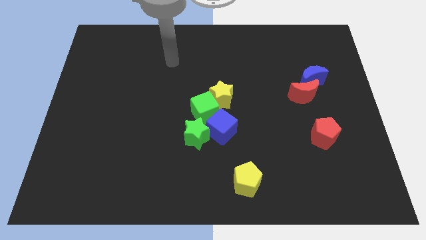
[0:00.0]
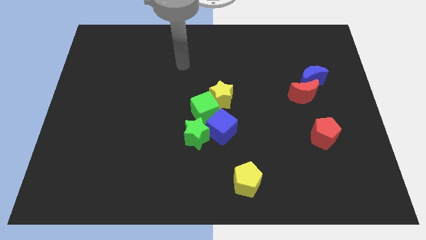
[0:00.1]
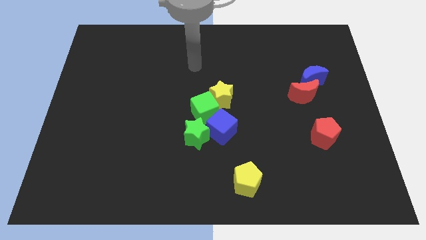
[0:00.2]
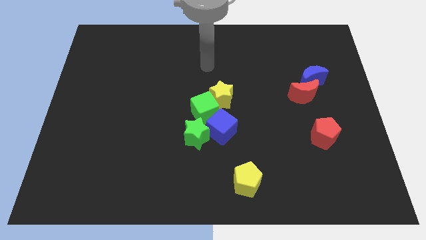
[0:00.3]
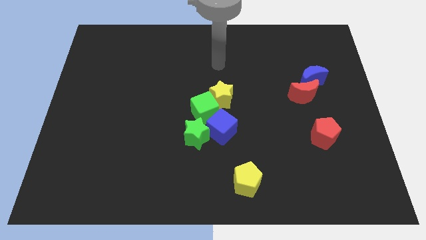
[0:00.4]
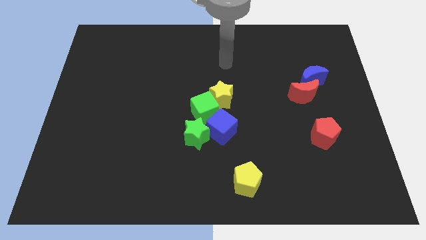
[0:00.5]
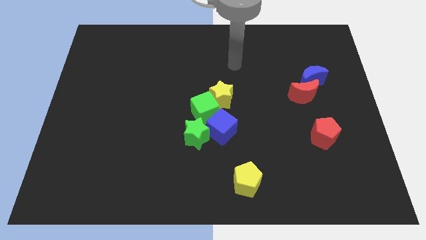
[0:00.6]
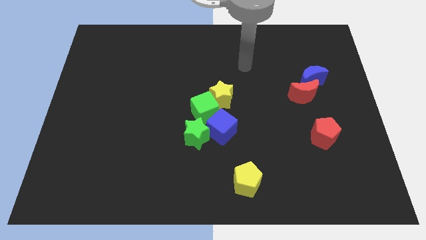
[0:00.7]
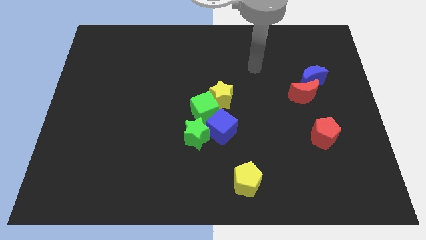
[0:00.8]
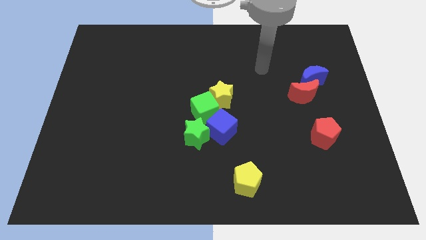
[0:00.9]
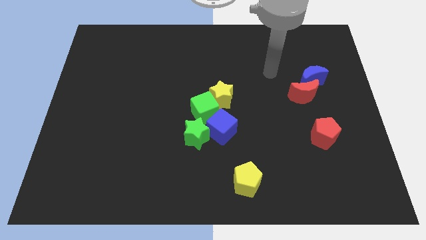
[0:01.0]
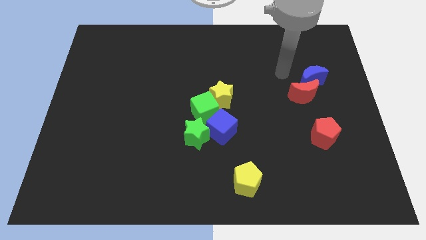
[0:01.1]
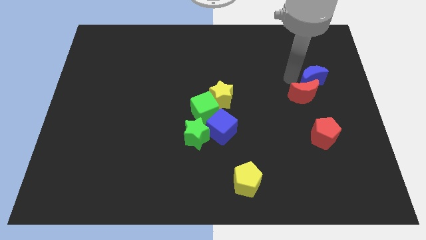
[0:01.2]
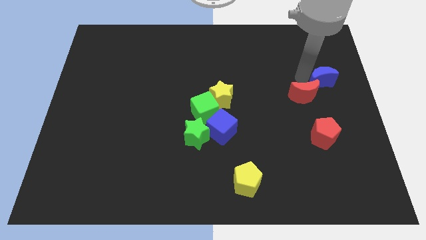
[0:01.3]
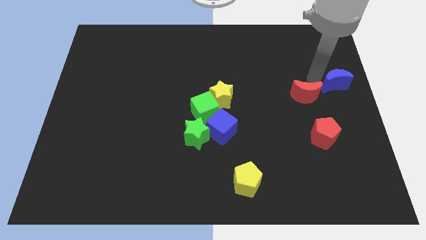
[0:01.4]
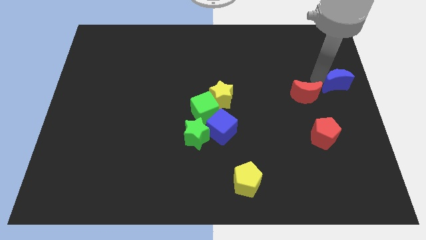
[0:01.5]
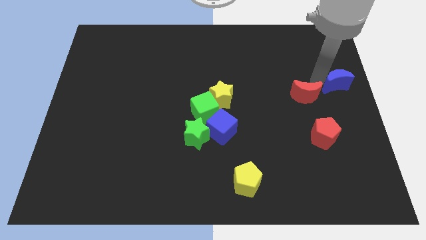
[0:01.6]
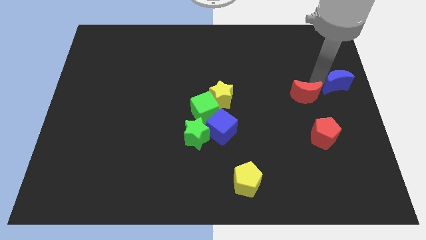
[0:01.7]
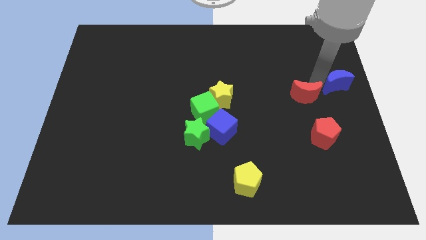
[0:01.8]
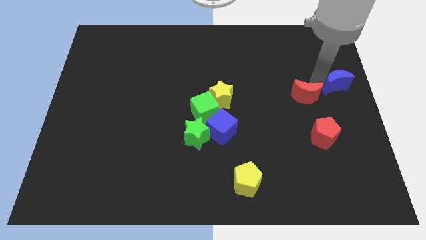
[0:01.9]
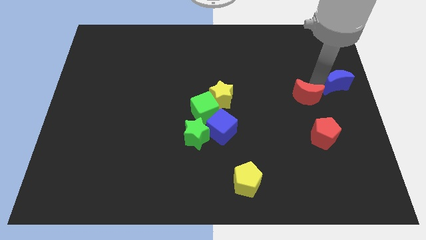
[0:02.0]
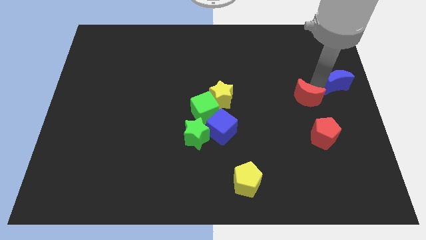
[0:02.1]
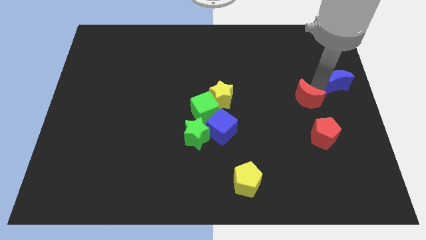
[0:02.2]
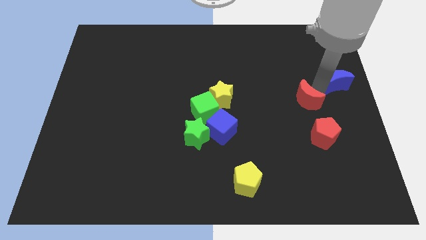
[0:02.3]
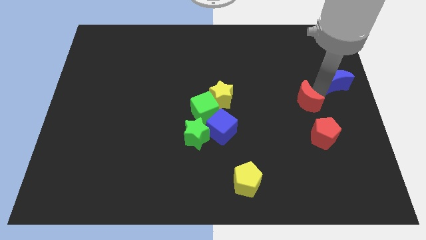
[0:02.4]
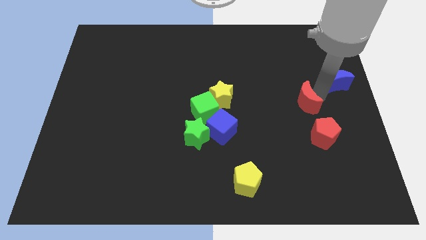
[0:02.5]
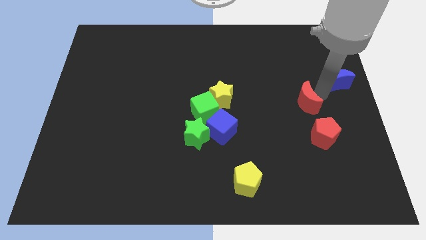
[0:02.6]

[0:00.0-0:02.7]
pull the red moon apart from the blue moon

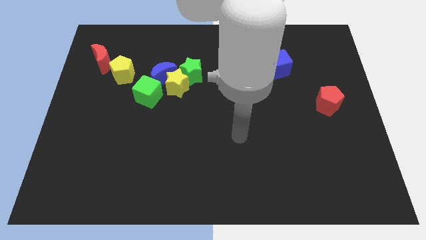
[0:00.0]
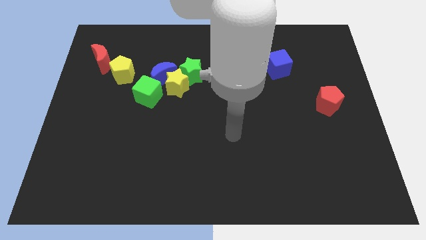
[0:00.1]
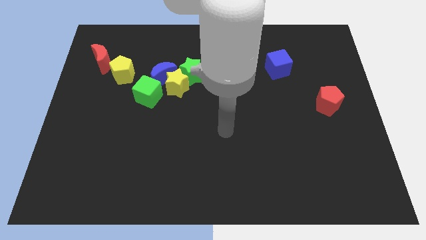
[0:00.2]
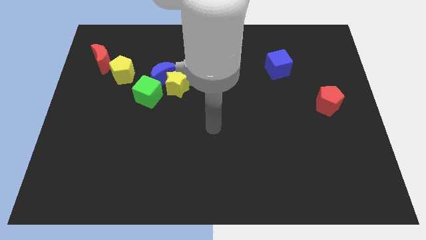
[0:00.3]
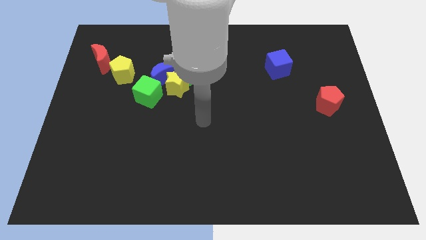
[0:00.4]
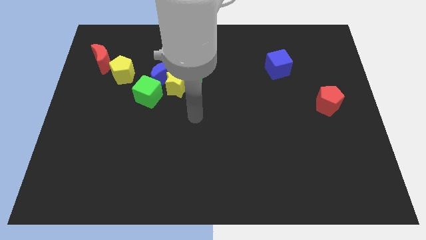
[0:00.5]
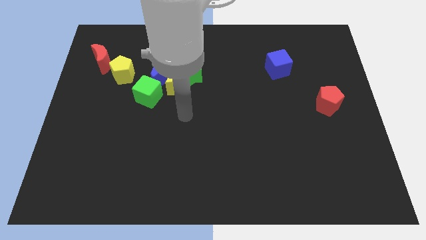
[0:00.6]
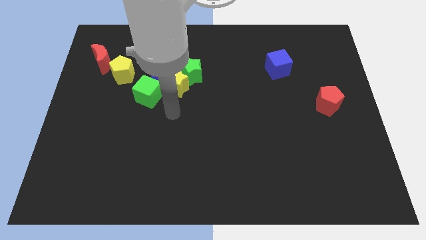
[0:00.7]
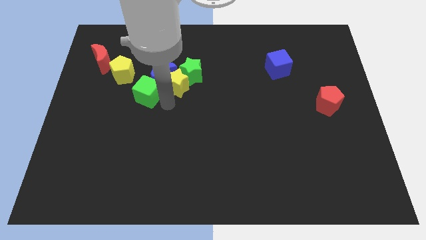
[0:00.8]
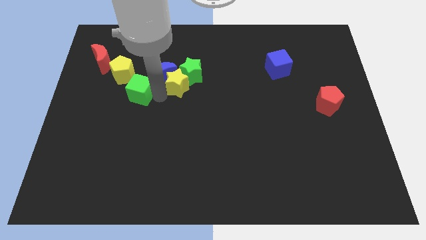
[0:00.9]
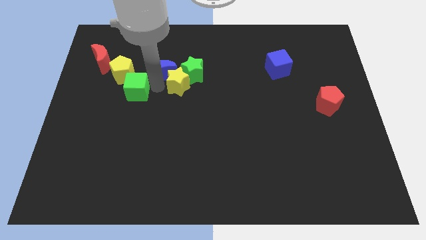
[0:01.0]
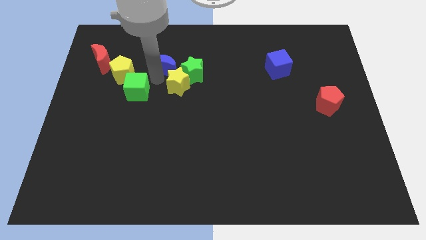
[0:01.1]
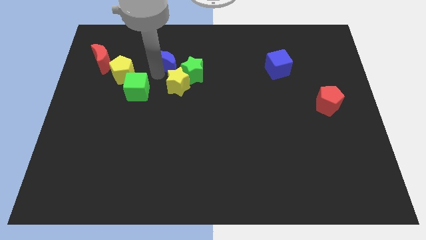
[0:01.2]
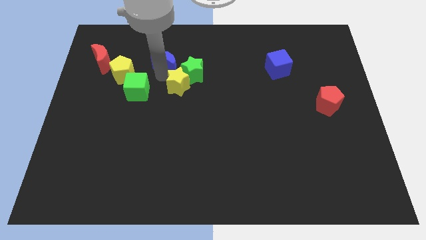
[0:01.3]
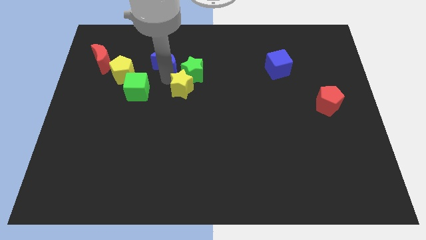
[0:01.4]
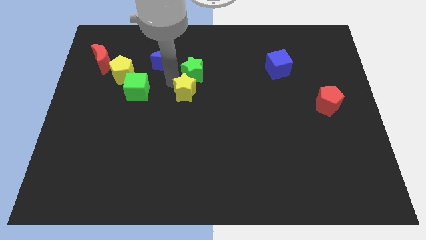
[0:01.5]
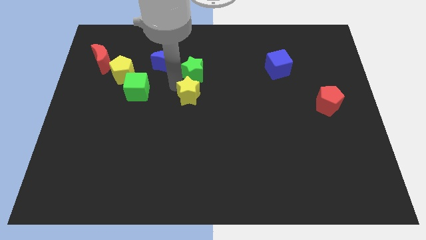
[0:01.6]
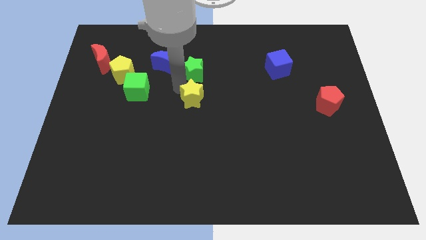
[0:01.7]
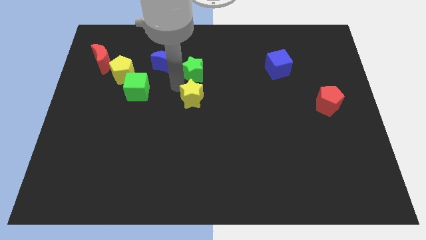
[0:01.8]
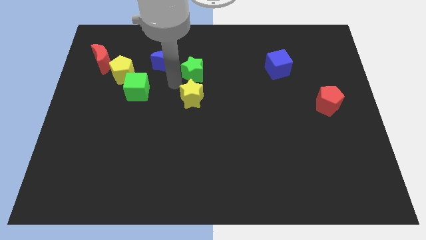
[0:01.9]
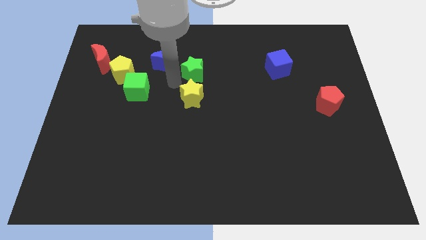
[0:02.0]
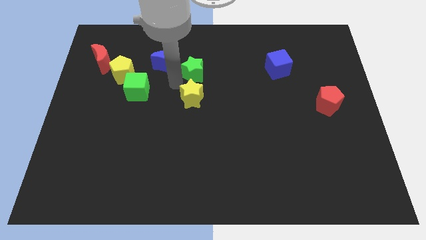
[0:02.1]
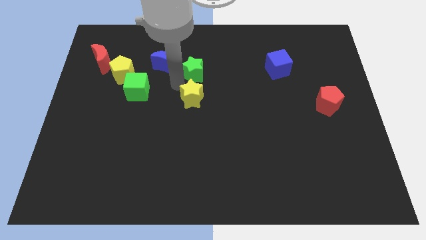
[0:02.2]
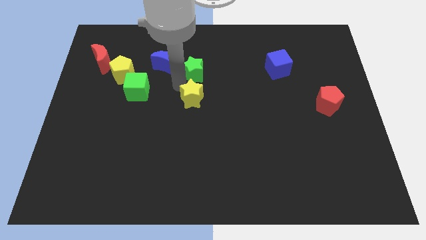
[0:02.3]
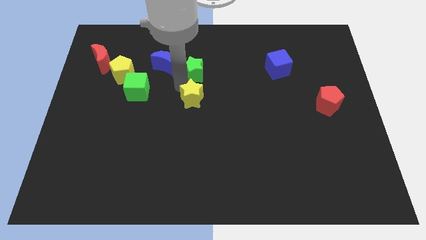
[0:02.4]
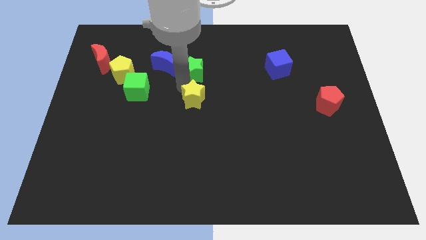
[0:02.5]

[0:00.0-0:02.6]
pull the yellow star apart from the clump

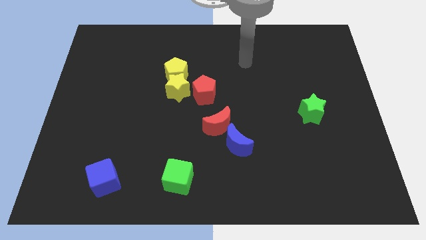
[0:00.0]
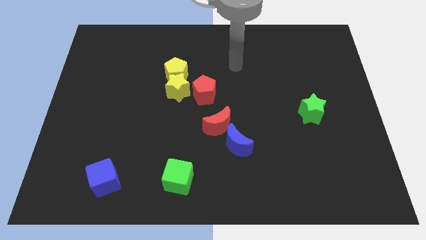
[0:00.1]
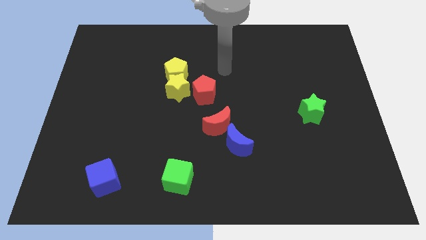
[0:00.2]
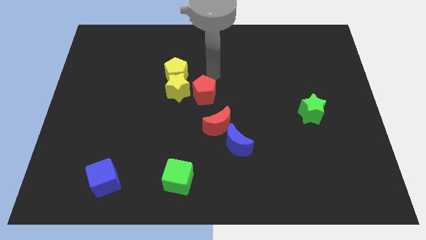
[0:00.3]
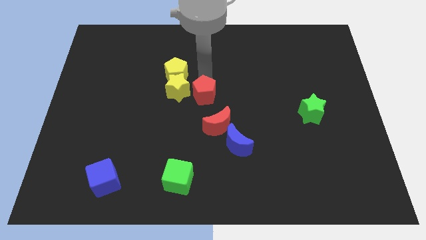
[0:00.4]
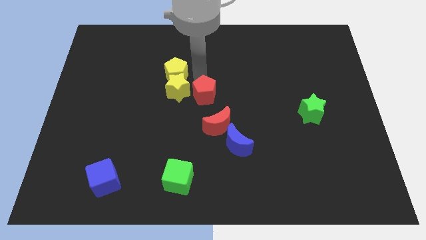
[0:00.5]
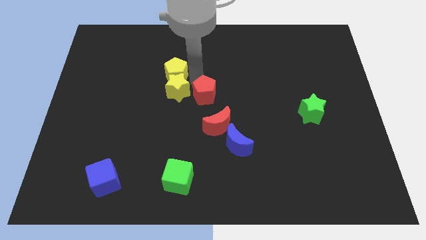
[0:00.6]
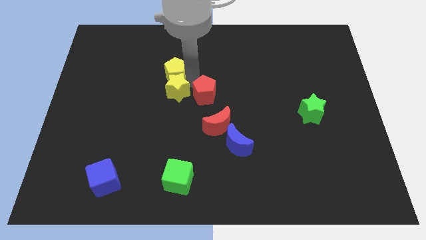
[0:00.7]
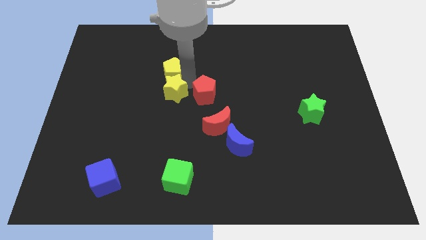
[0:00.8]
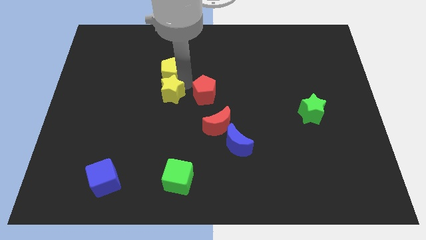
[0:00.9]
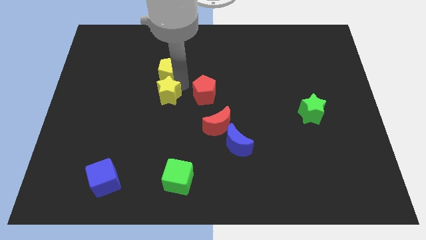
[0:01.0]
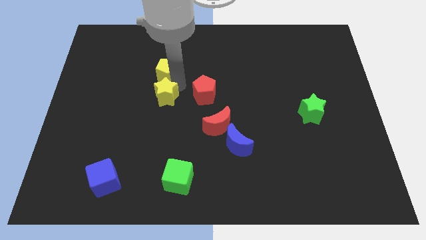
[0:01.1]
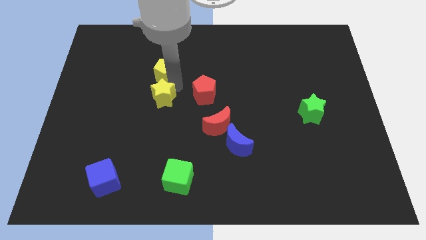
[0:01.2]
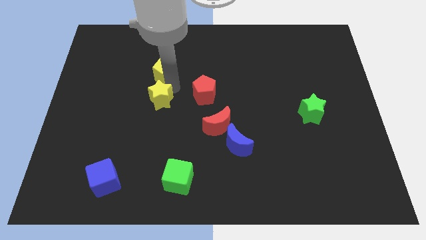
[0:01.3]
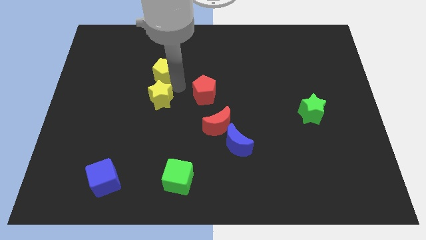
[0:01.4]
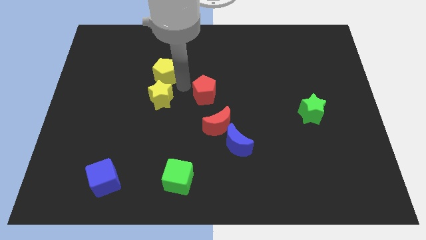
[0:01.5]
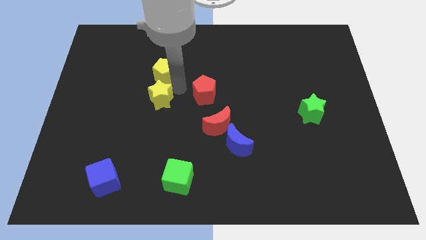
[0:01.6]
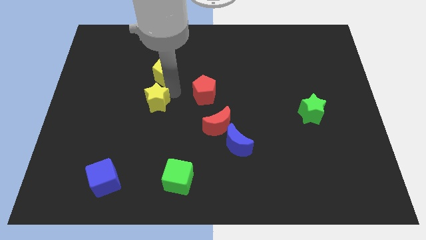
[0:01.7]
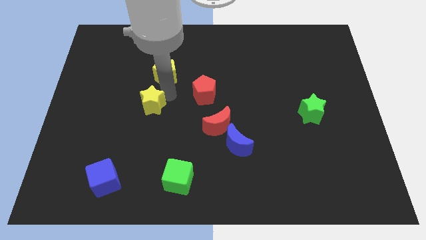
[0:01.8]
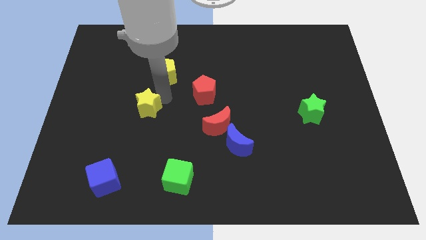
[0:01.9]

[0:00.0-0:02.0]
separate the yellow star from the yellow pentagon and red pentagon

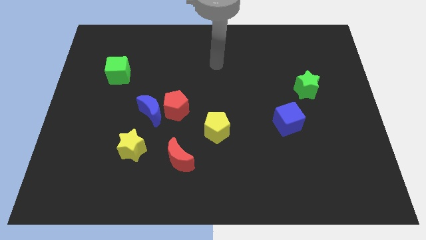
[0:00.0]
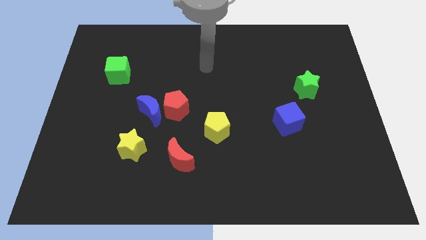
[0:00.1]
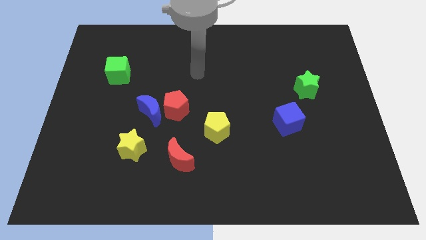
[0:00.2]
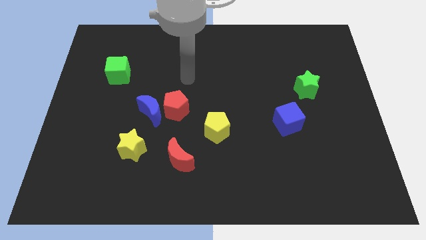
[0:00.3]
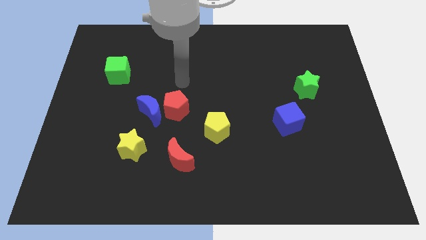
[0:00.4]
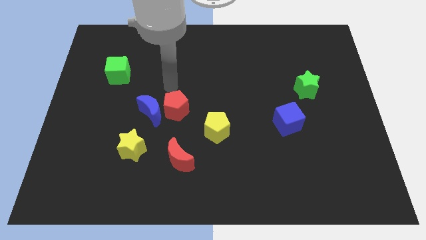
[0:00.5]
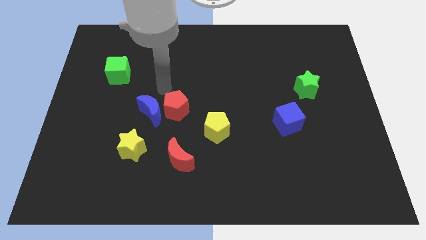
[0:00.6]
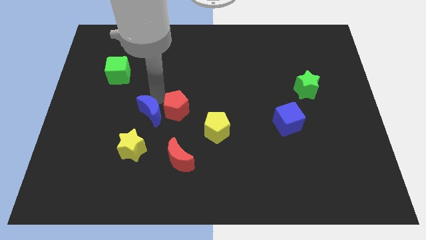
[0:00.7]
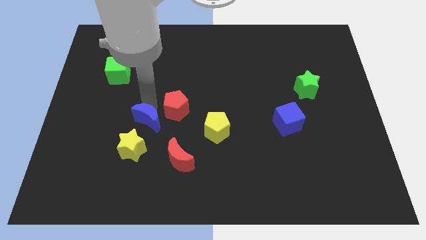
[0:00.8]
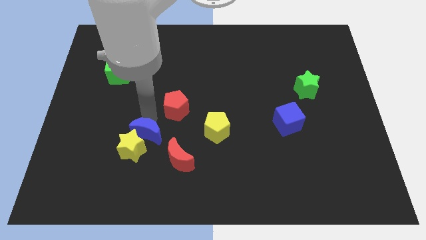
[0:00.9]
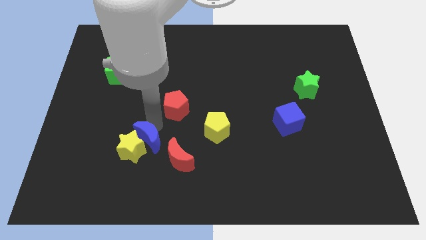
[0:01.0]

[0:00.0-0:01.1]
pull the red pentagon apart from the blue moon

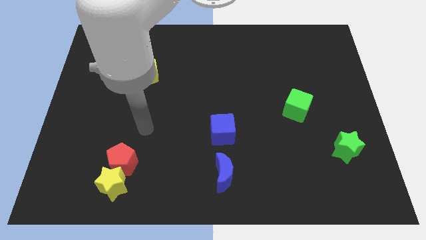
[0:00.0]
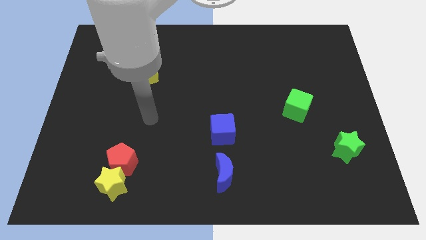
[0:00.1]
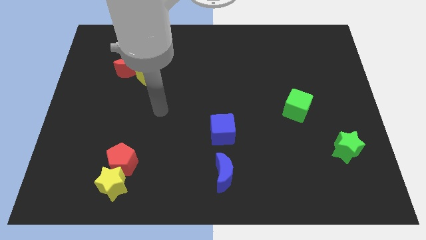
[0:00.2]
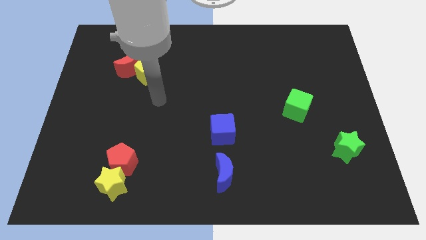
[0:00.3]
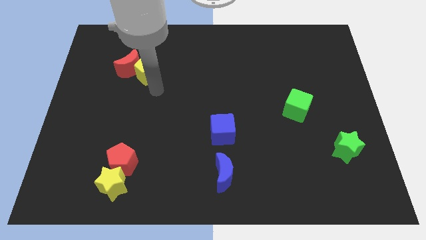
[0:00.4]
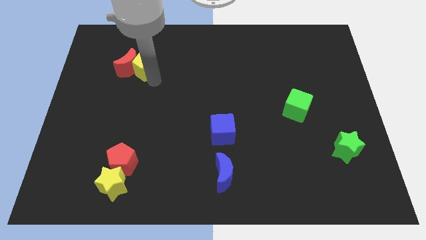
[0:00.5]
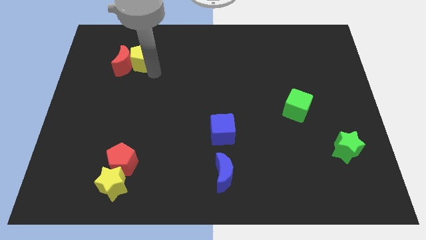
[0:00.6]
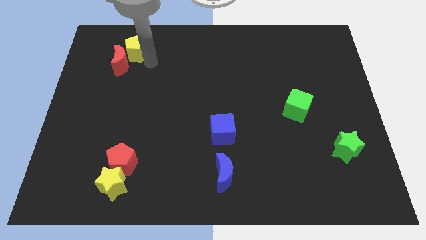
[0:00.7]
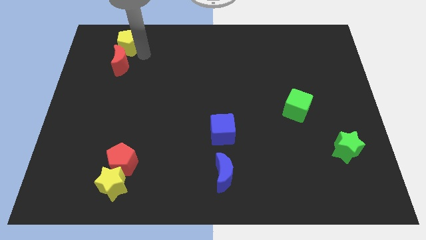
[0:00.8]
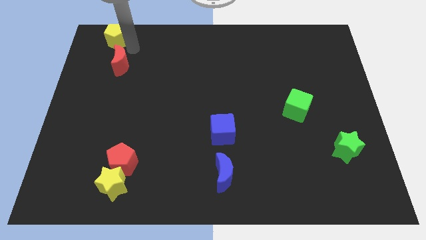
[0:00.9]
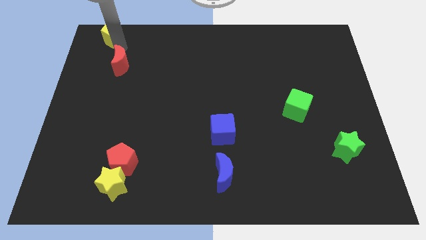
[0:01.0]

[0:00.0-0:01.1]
move the red moon away from the yellow pentagon
